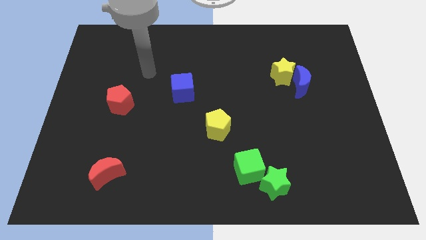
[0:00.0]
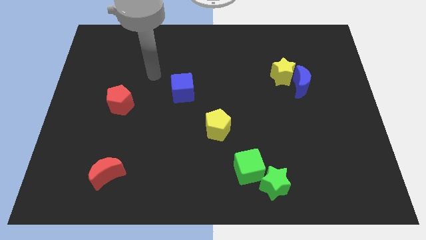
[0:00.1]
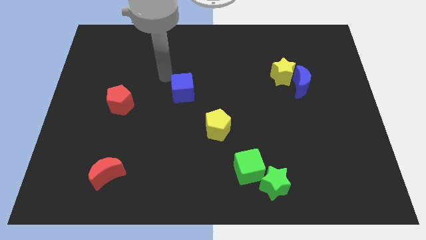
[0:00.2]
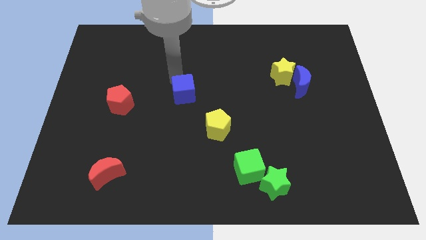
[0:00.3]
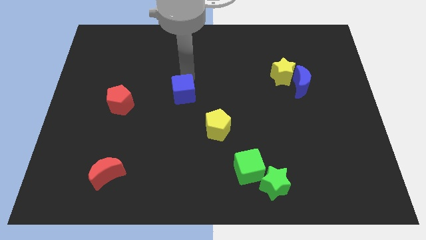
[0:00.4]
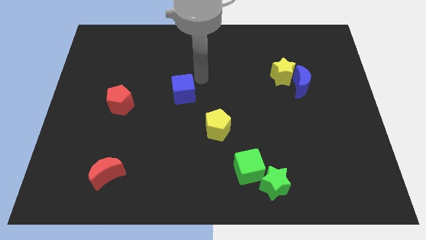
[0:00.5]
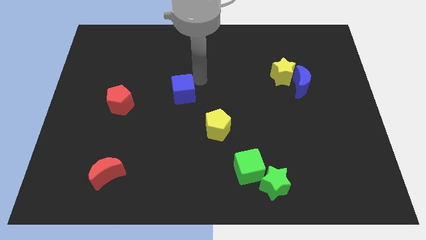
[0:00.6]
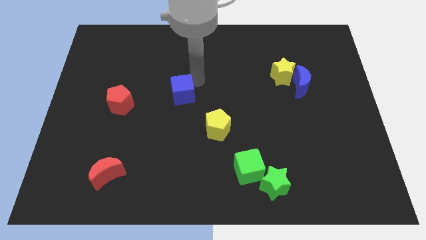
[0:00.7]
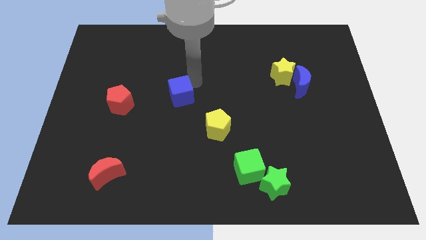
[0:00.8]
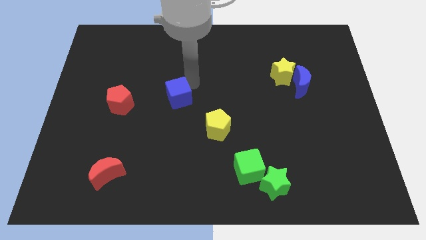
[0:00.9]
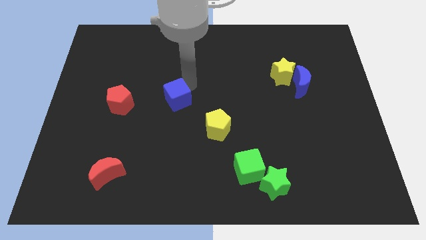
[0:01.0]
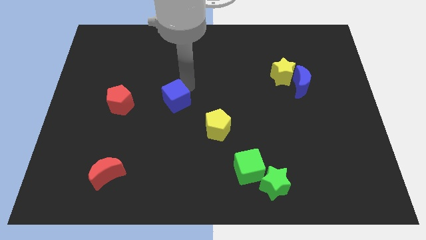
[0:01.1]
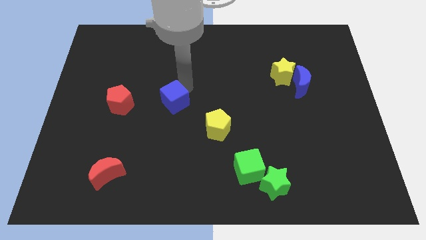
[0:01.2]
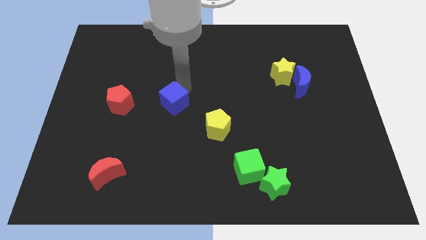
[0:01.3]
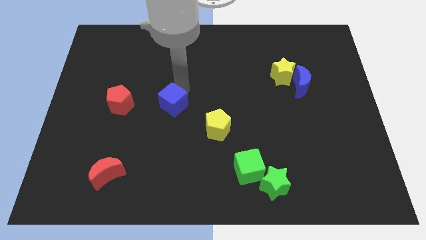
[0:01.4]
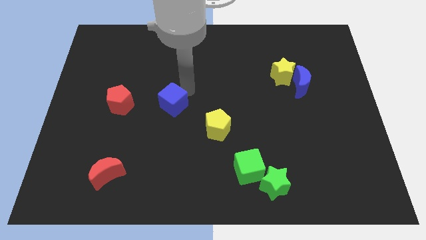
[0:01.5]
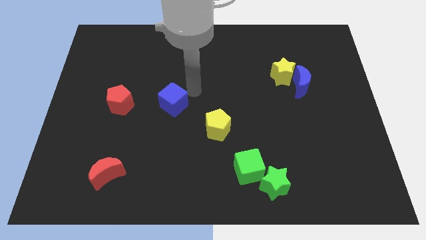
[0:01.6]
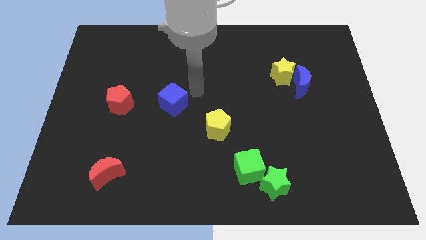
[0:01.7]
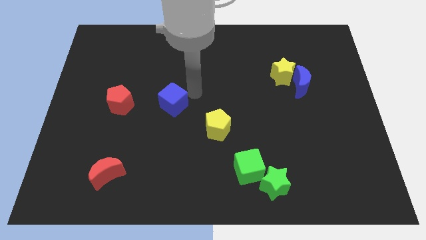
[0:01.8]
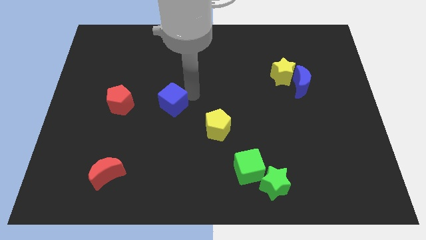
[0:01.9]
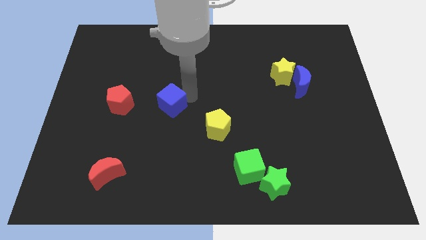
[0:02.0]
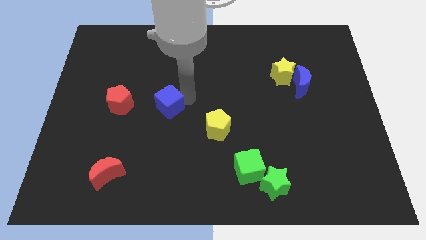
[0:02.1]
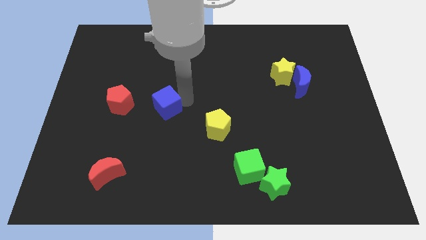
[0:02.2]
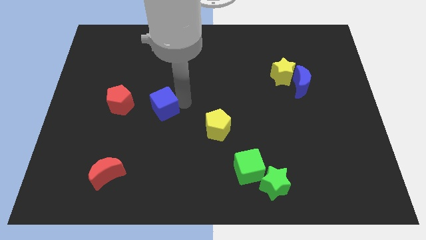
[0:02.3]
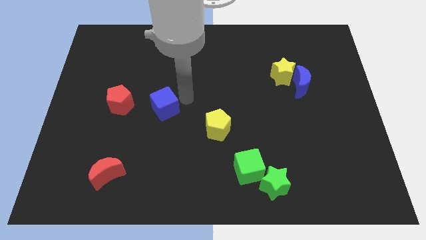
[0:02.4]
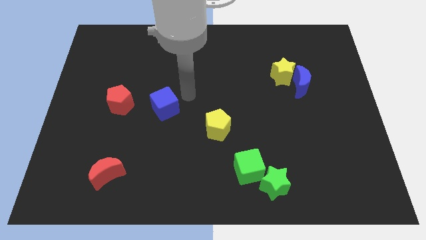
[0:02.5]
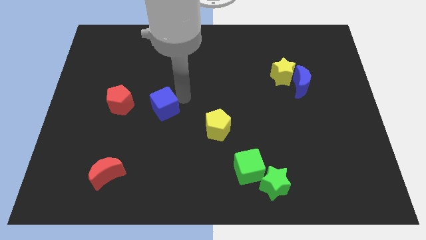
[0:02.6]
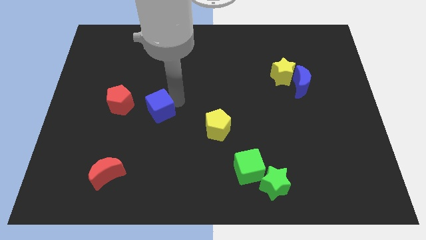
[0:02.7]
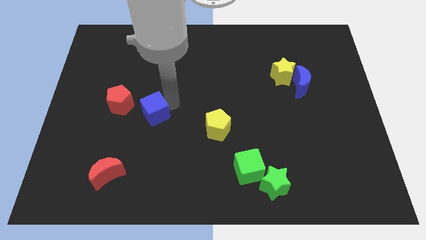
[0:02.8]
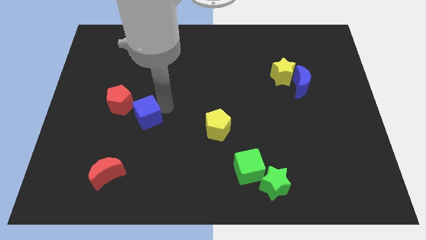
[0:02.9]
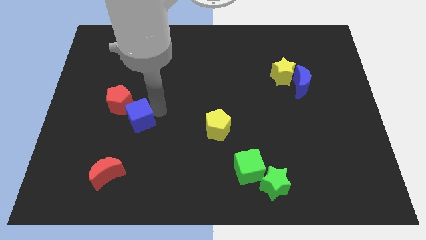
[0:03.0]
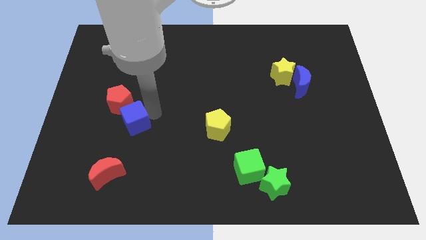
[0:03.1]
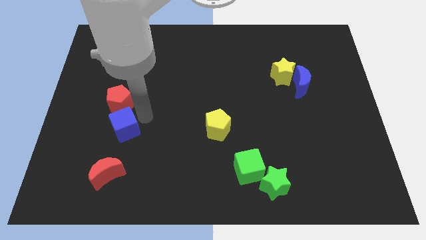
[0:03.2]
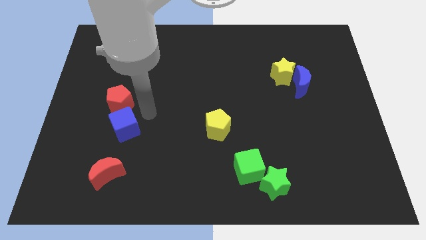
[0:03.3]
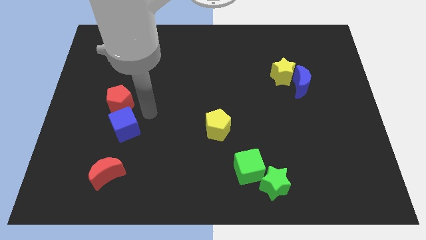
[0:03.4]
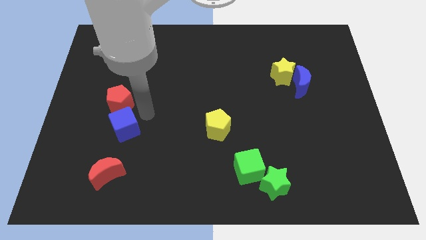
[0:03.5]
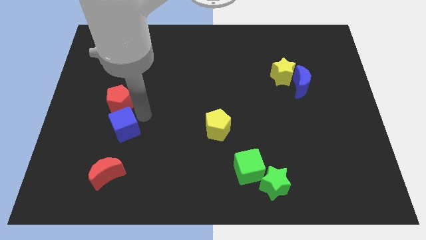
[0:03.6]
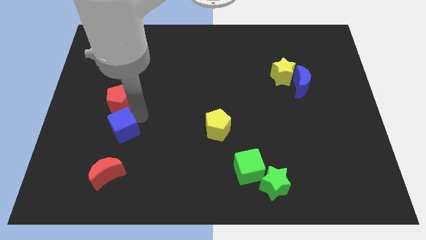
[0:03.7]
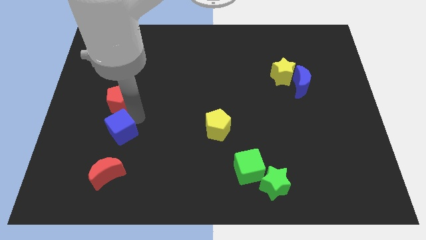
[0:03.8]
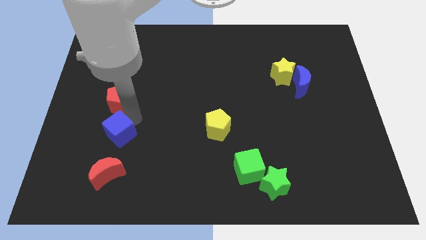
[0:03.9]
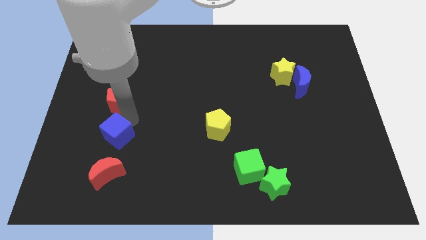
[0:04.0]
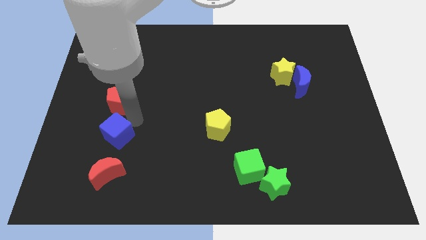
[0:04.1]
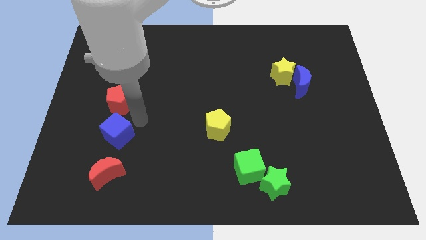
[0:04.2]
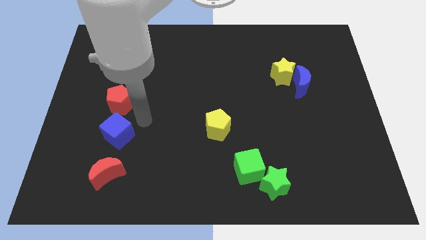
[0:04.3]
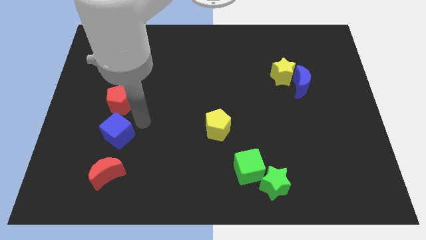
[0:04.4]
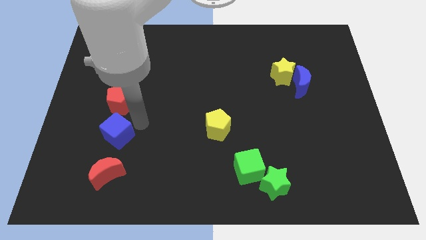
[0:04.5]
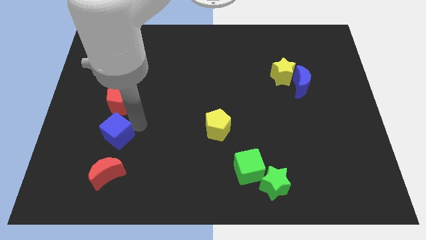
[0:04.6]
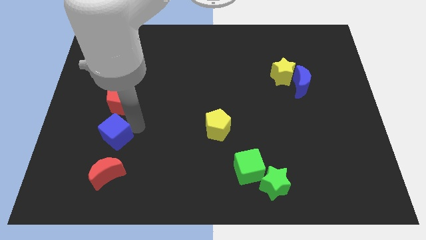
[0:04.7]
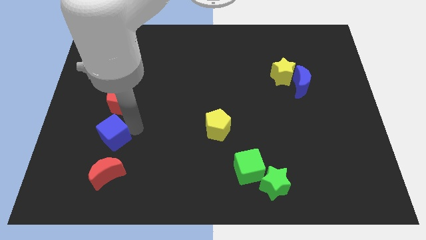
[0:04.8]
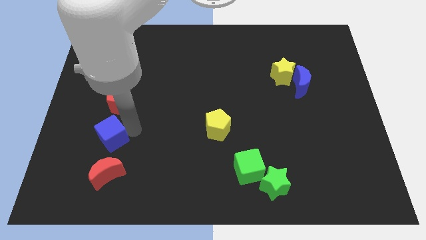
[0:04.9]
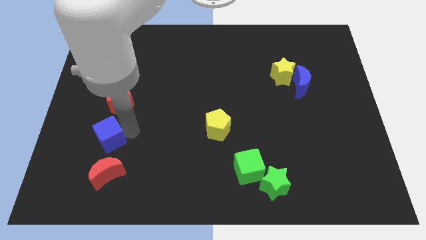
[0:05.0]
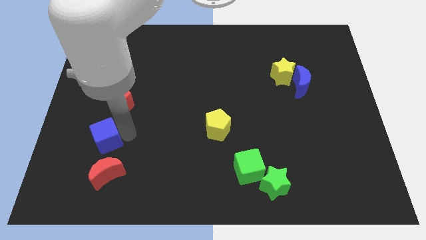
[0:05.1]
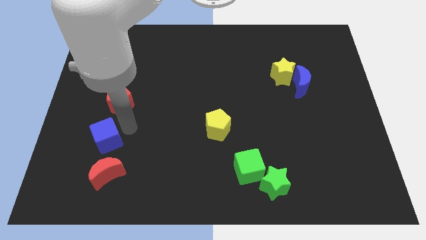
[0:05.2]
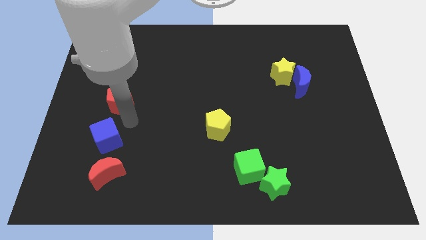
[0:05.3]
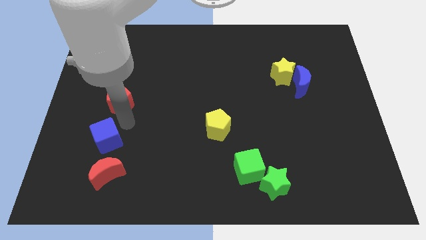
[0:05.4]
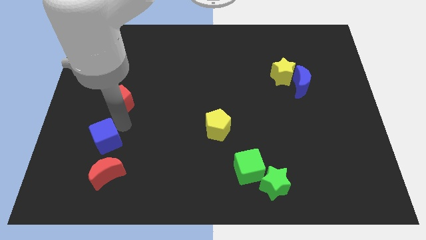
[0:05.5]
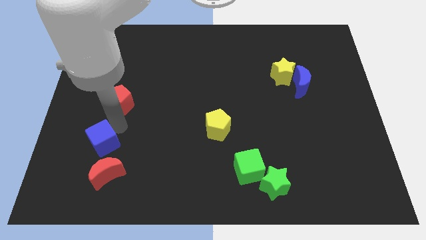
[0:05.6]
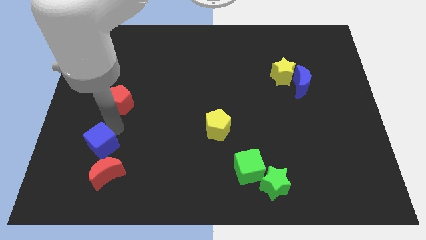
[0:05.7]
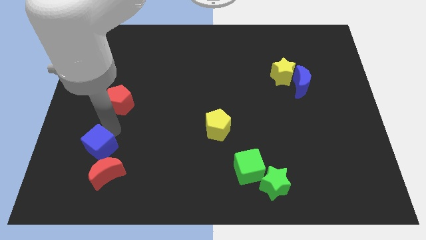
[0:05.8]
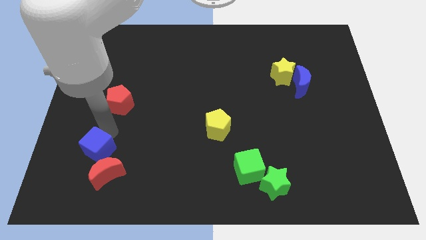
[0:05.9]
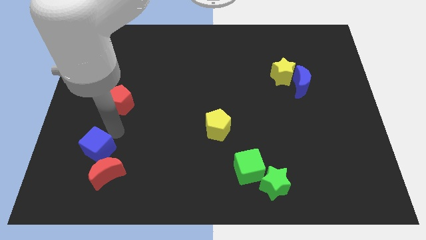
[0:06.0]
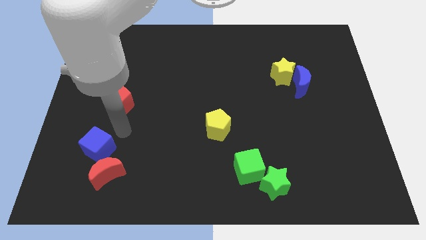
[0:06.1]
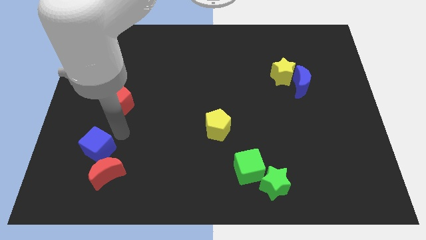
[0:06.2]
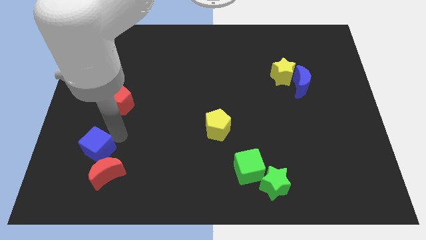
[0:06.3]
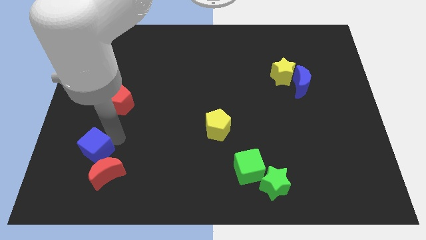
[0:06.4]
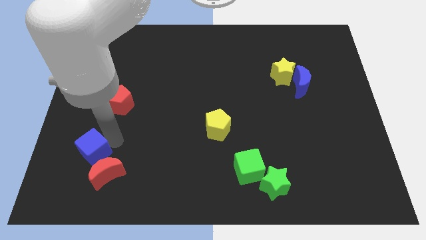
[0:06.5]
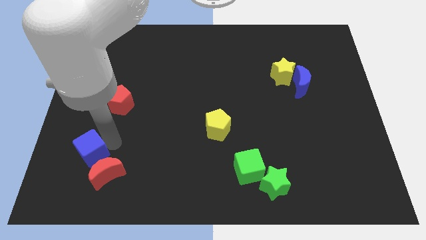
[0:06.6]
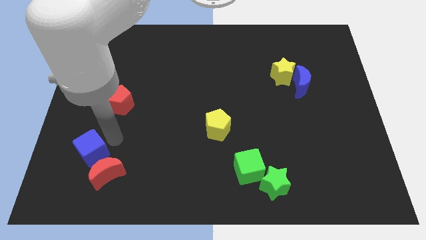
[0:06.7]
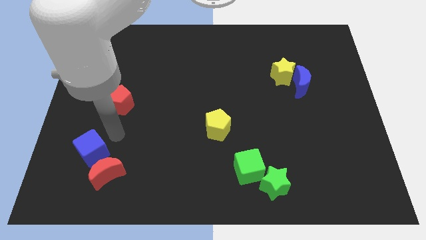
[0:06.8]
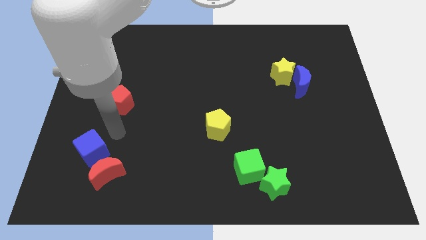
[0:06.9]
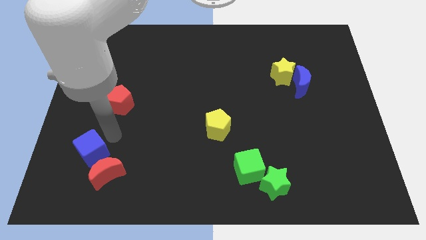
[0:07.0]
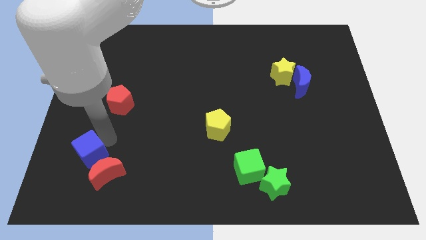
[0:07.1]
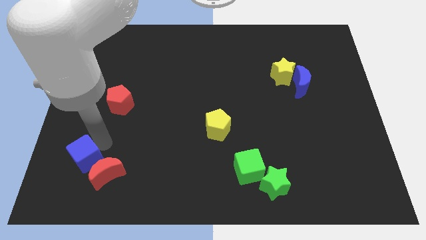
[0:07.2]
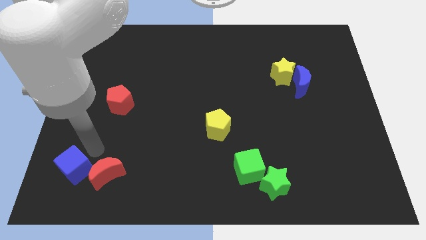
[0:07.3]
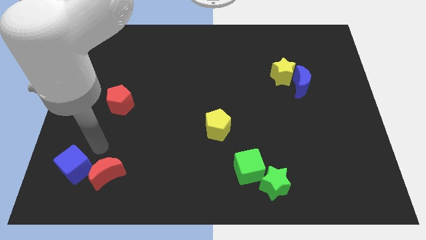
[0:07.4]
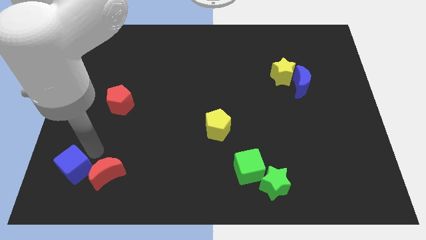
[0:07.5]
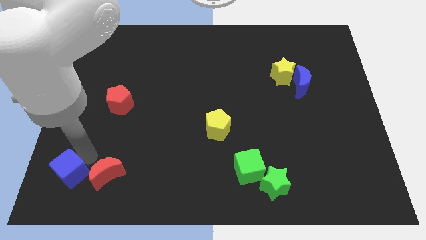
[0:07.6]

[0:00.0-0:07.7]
put the blue cube to the lower left corner
